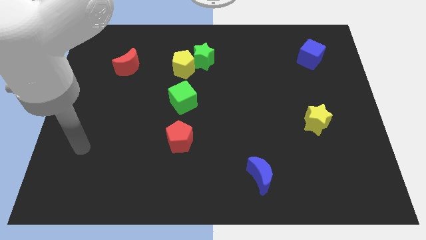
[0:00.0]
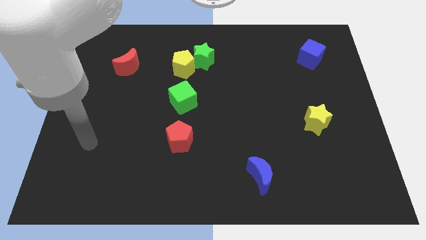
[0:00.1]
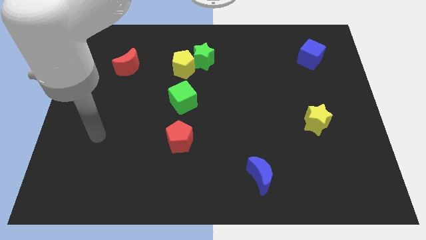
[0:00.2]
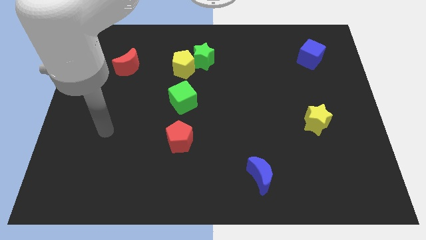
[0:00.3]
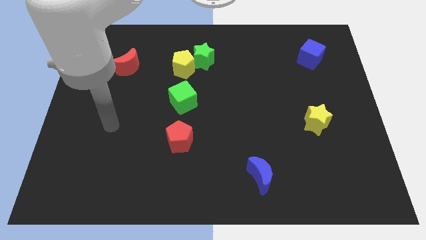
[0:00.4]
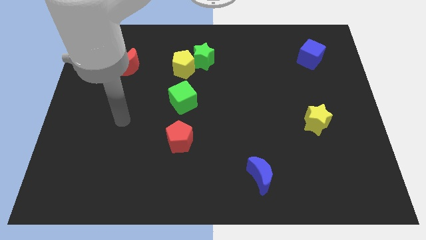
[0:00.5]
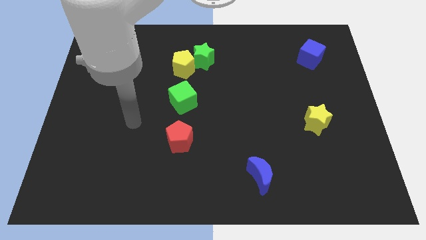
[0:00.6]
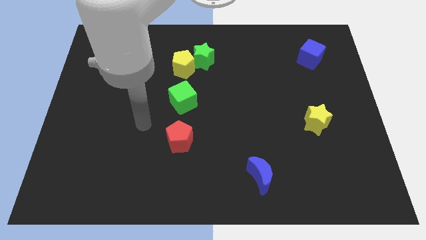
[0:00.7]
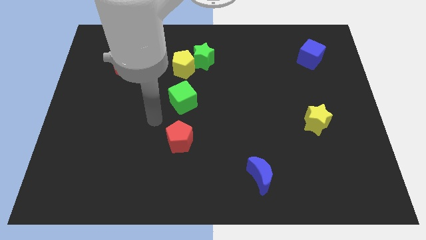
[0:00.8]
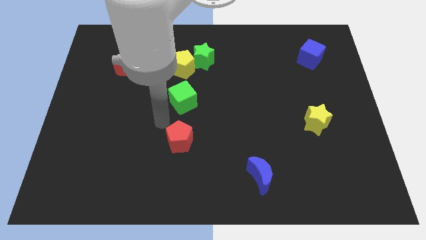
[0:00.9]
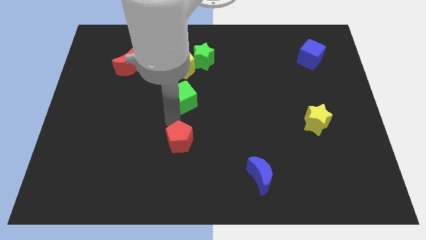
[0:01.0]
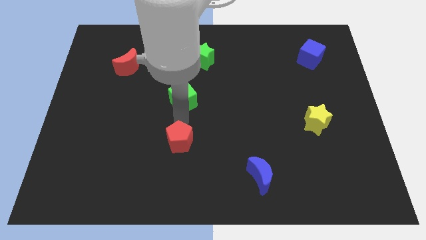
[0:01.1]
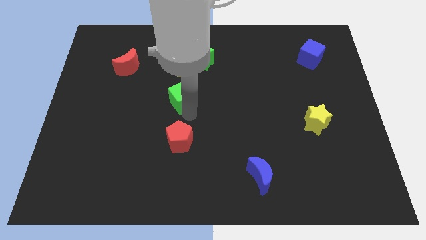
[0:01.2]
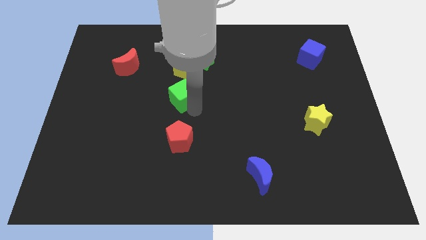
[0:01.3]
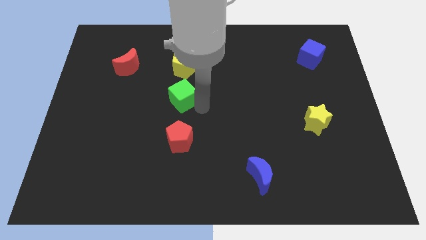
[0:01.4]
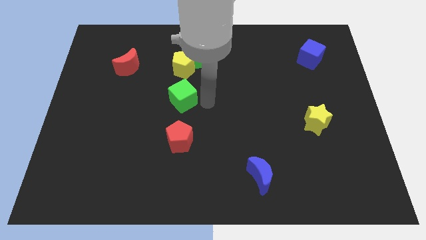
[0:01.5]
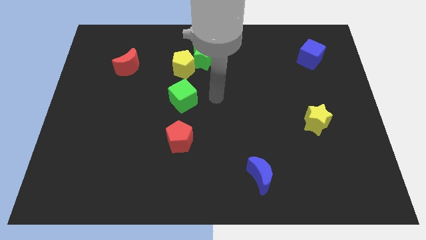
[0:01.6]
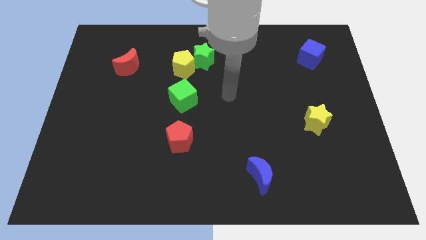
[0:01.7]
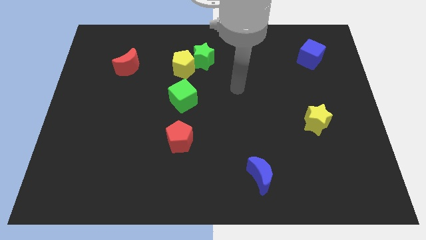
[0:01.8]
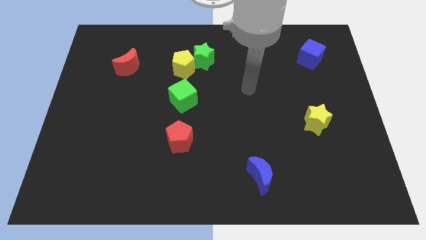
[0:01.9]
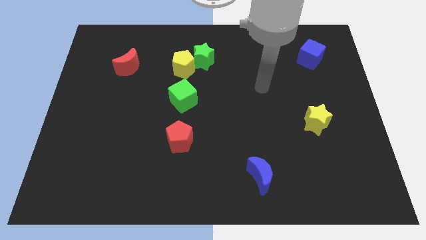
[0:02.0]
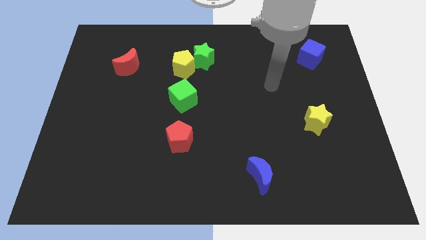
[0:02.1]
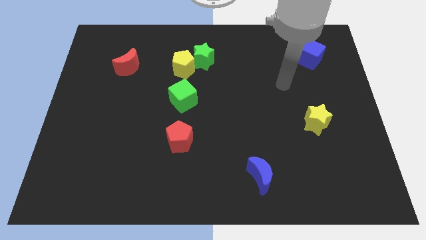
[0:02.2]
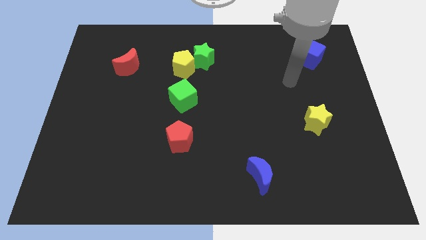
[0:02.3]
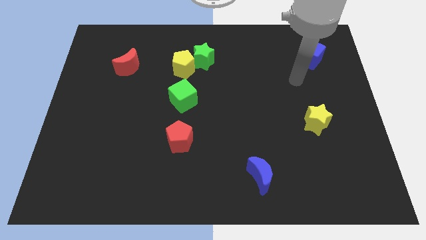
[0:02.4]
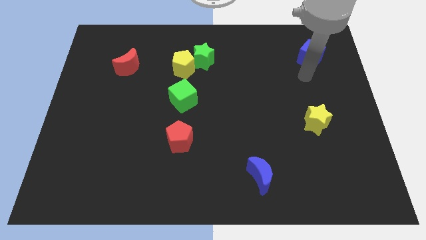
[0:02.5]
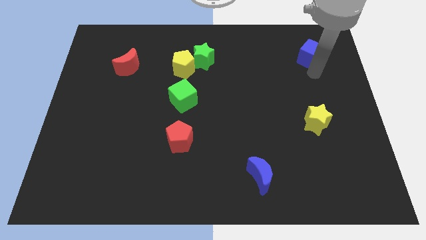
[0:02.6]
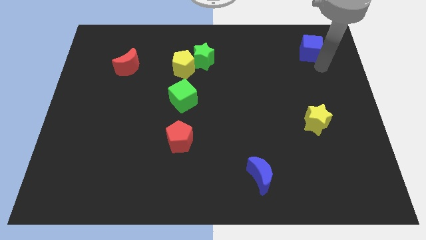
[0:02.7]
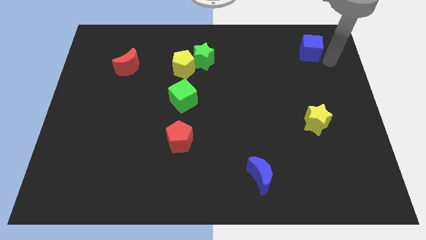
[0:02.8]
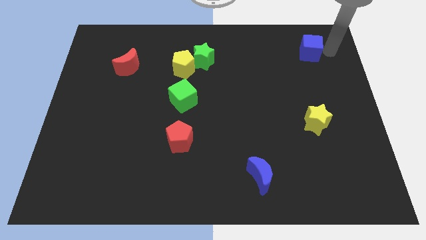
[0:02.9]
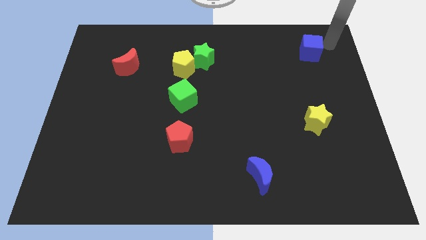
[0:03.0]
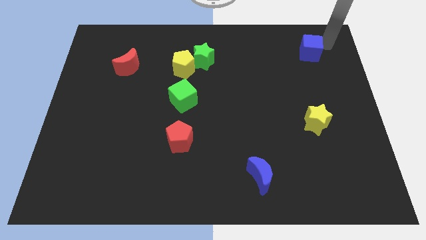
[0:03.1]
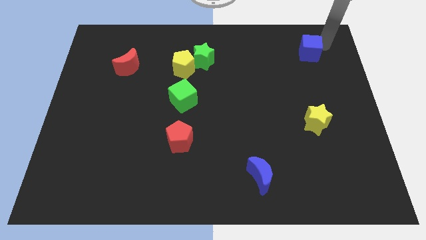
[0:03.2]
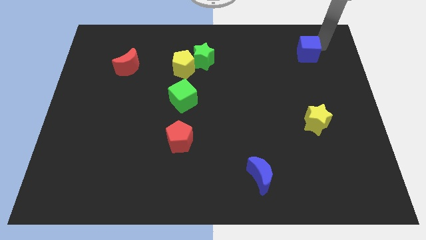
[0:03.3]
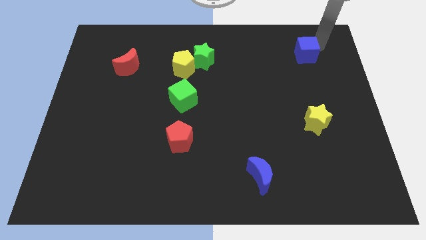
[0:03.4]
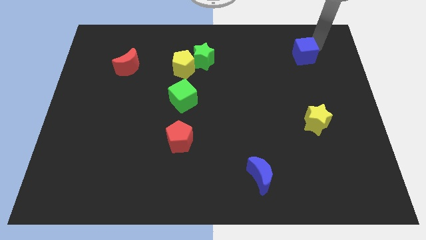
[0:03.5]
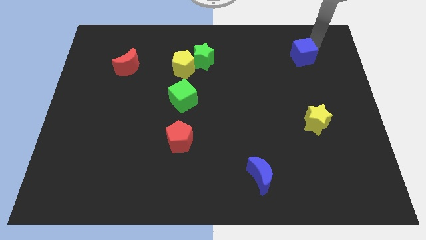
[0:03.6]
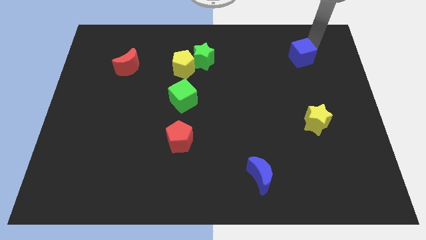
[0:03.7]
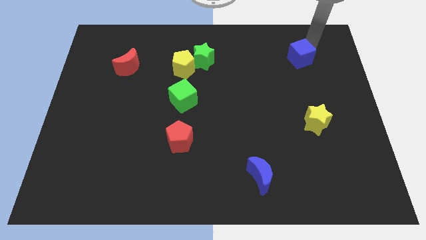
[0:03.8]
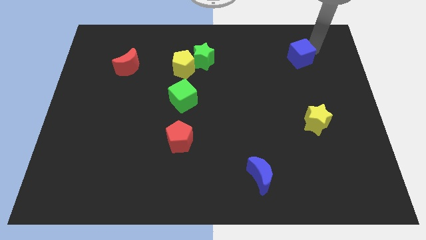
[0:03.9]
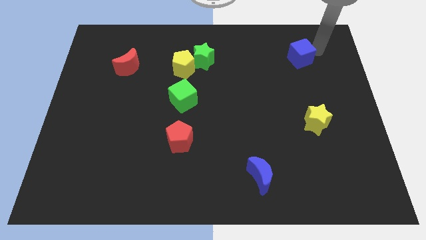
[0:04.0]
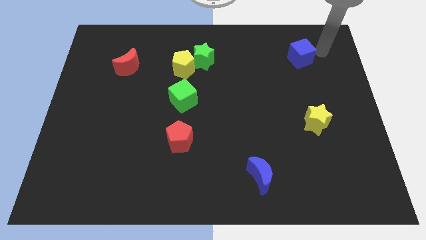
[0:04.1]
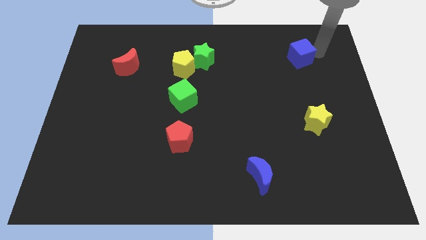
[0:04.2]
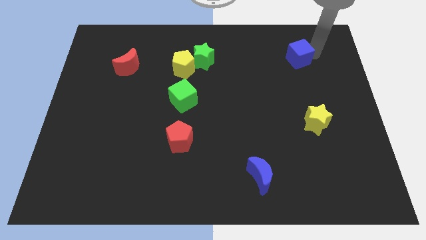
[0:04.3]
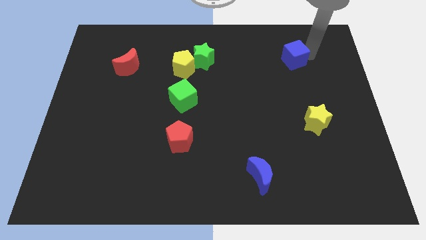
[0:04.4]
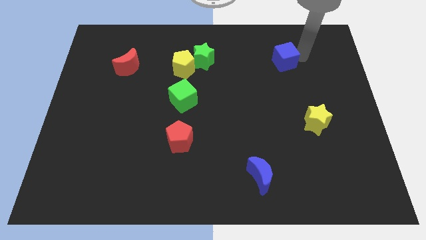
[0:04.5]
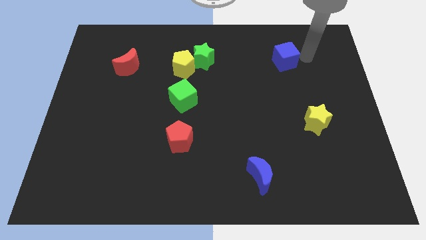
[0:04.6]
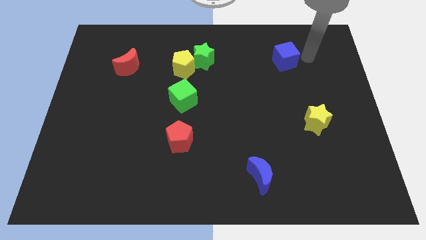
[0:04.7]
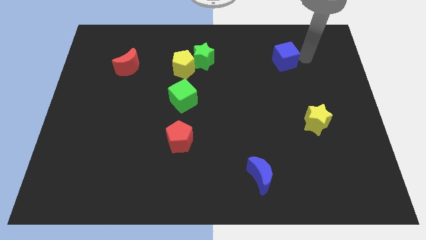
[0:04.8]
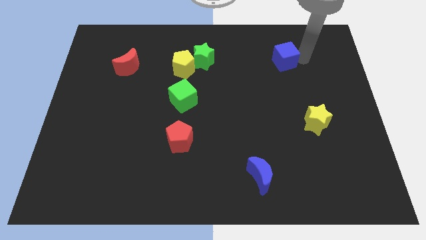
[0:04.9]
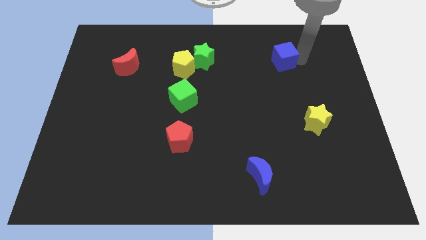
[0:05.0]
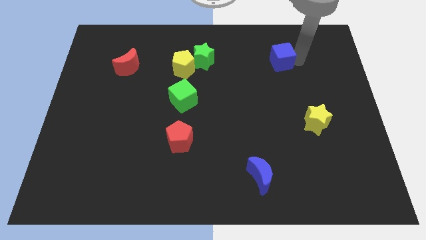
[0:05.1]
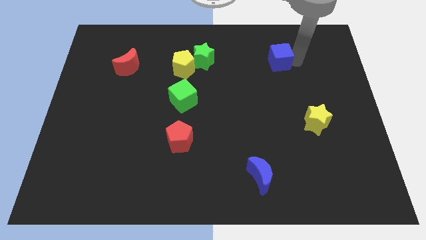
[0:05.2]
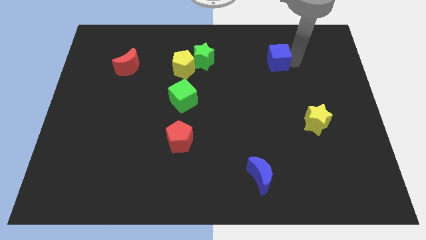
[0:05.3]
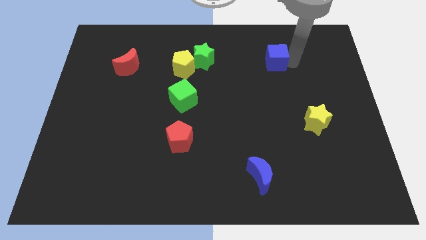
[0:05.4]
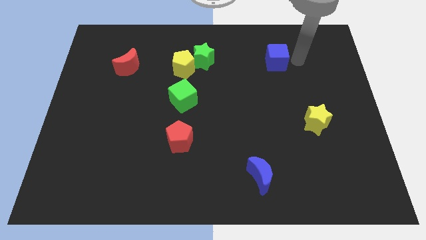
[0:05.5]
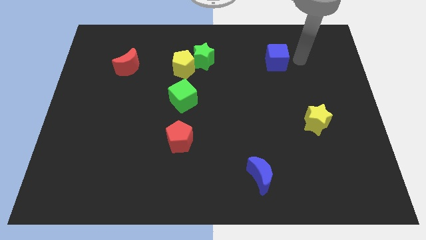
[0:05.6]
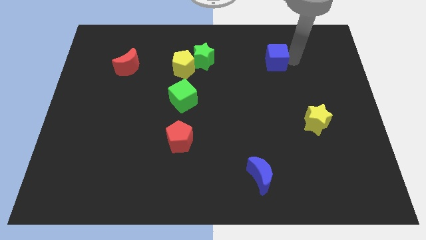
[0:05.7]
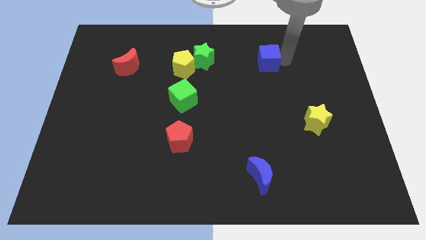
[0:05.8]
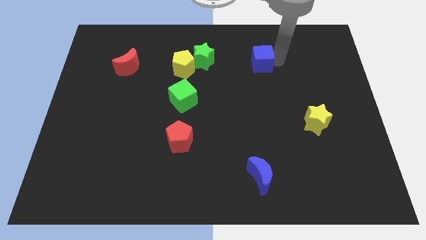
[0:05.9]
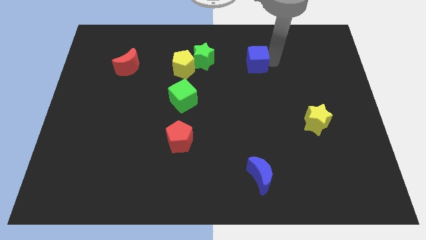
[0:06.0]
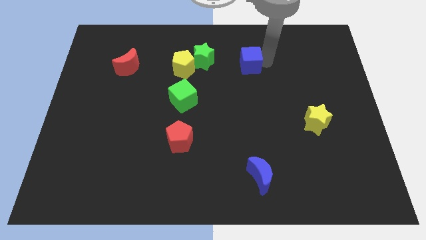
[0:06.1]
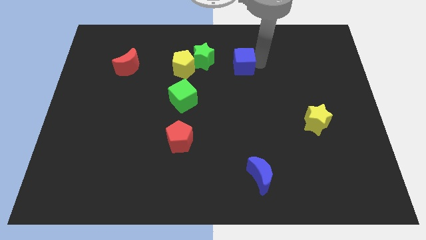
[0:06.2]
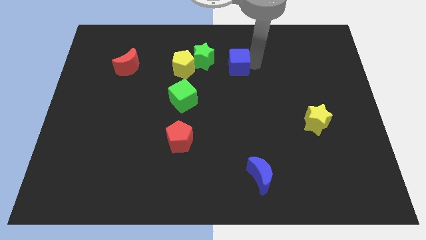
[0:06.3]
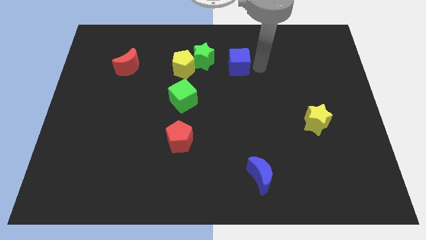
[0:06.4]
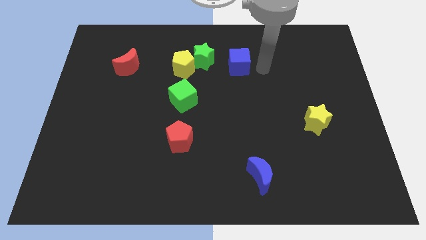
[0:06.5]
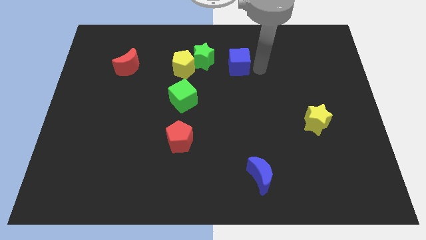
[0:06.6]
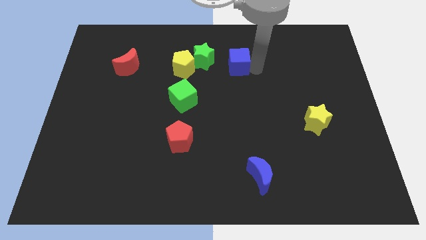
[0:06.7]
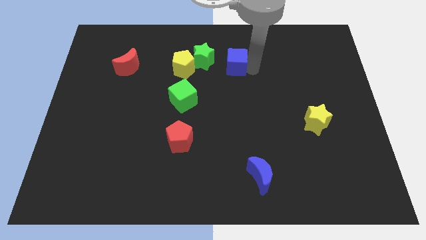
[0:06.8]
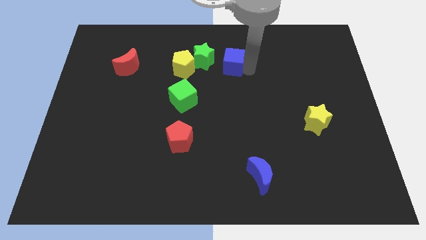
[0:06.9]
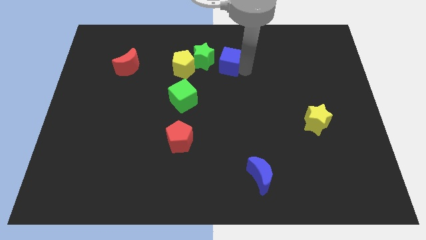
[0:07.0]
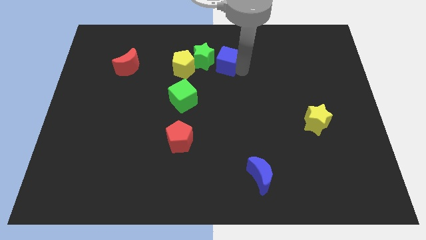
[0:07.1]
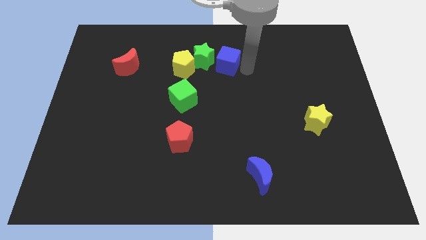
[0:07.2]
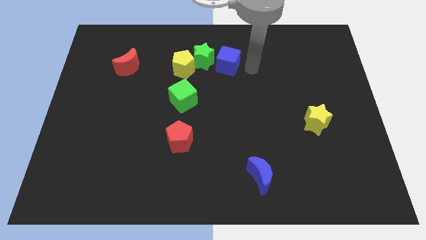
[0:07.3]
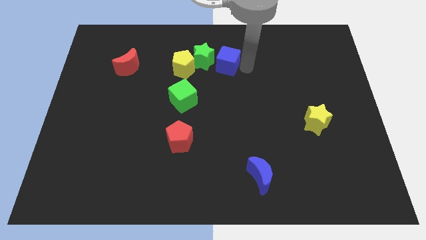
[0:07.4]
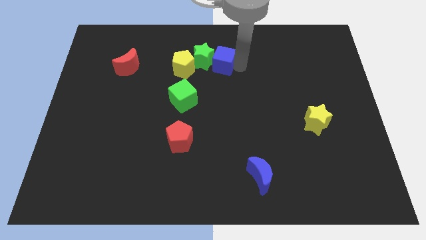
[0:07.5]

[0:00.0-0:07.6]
slide the blue cube to the green star
